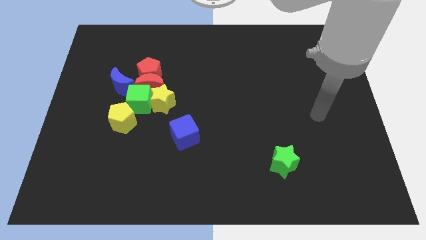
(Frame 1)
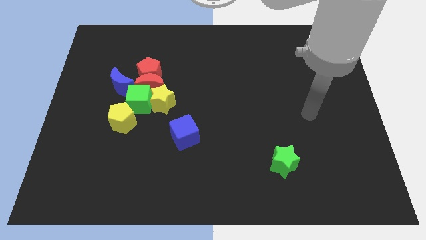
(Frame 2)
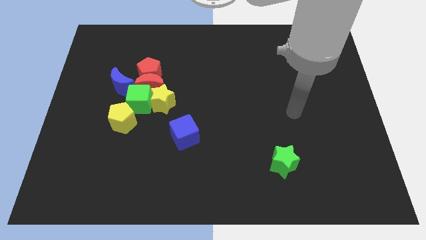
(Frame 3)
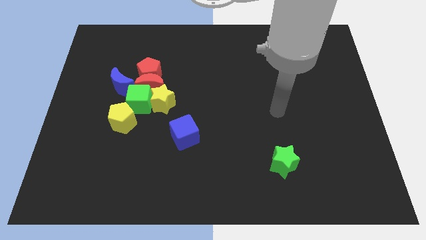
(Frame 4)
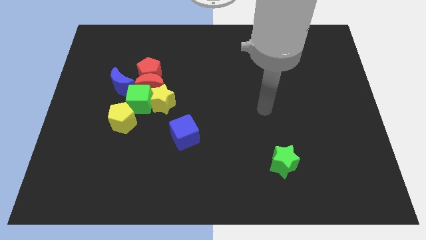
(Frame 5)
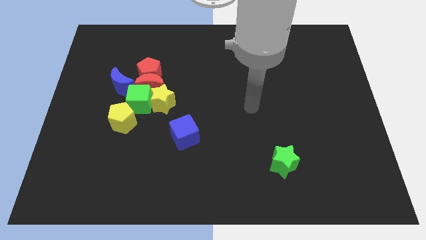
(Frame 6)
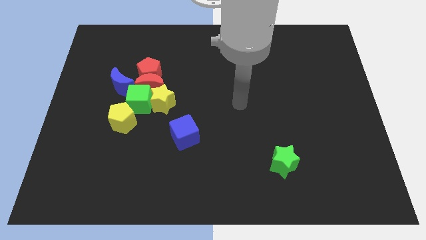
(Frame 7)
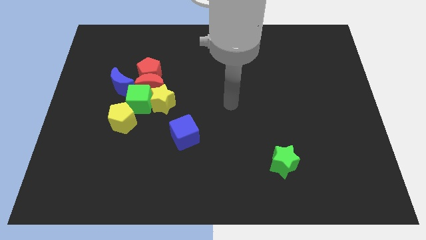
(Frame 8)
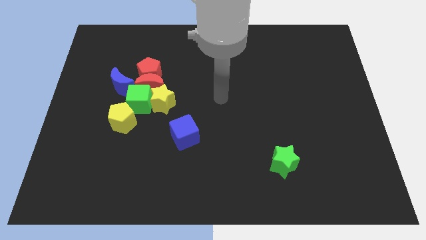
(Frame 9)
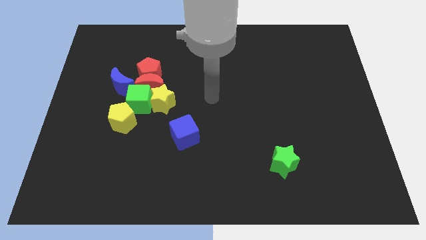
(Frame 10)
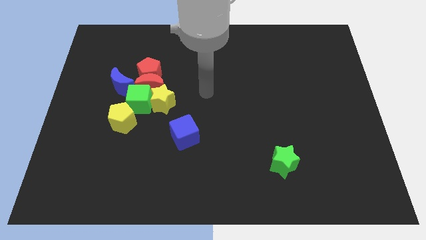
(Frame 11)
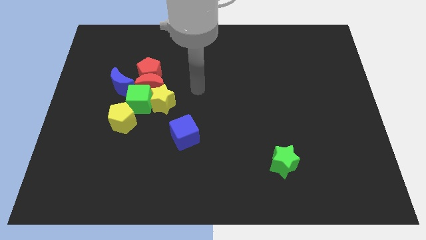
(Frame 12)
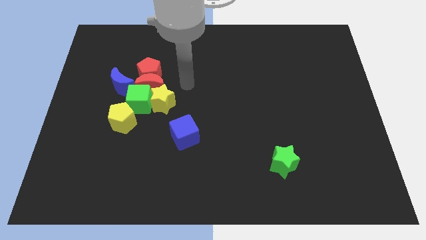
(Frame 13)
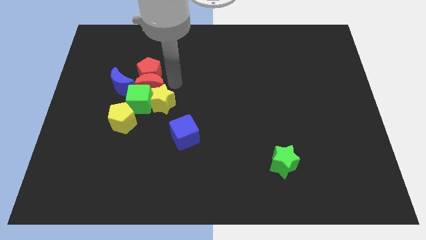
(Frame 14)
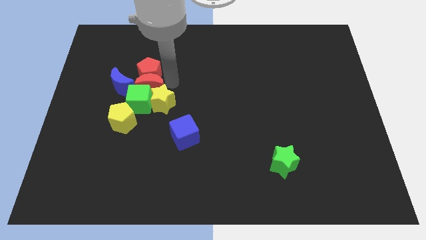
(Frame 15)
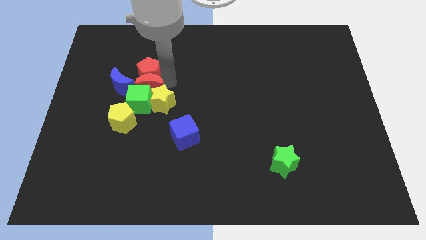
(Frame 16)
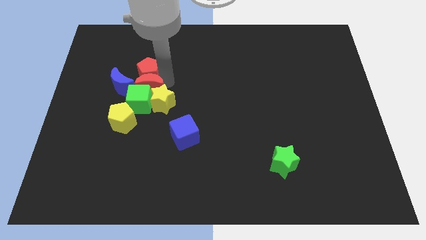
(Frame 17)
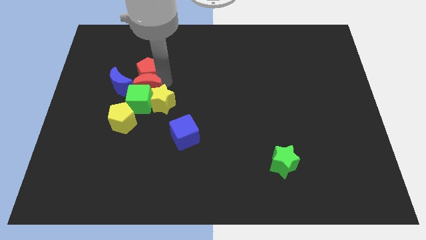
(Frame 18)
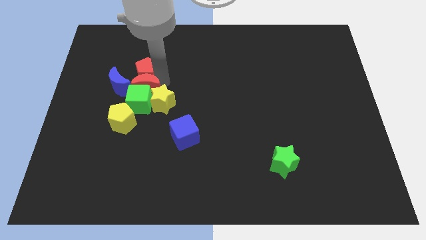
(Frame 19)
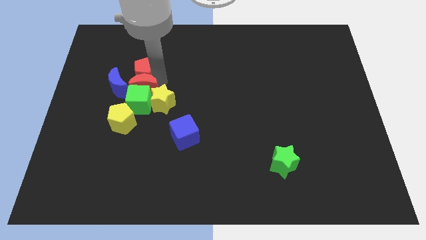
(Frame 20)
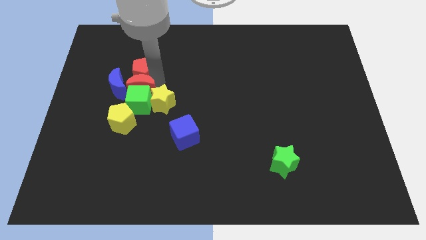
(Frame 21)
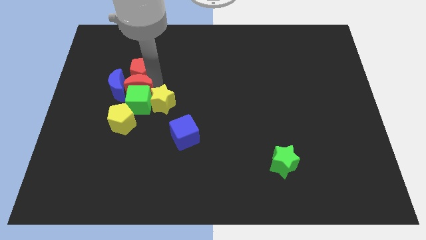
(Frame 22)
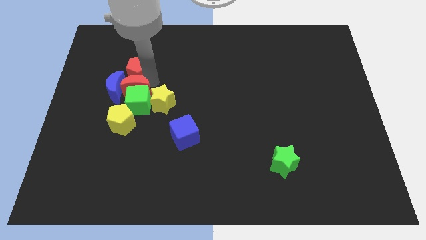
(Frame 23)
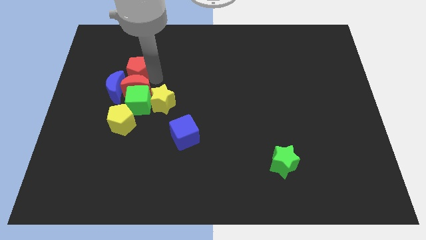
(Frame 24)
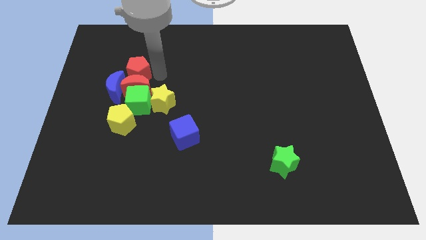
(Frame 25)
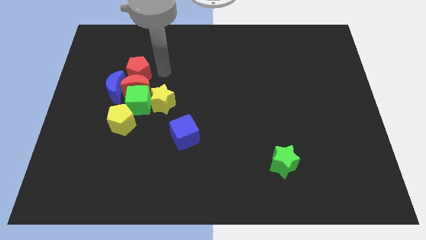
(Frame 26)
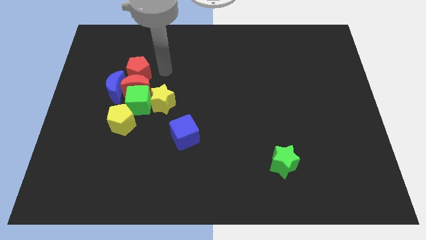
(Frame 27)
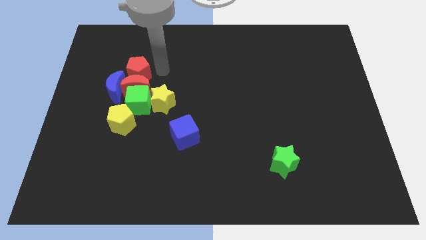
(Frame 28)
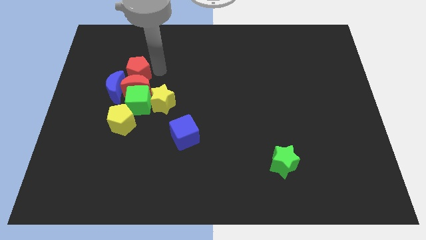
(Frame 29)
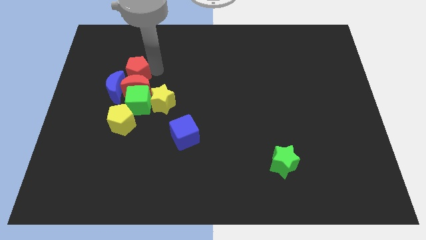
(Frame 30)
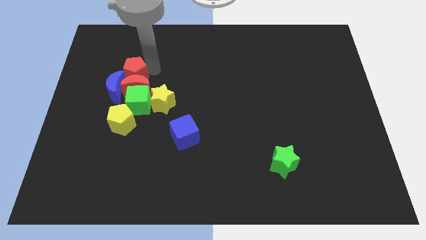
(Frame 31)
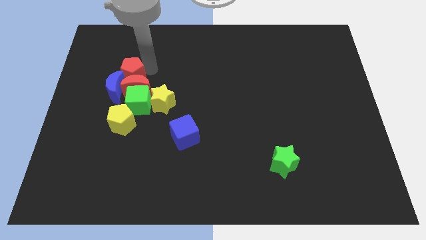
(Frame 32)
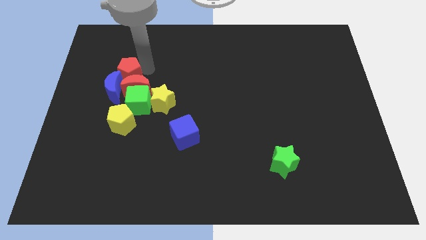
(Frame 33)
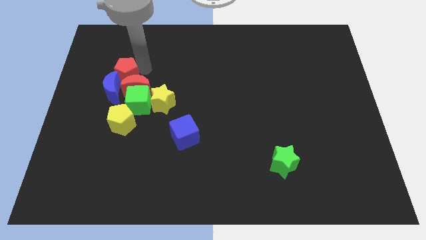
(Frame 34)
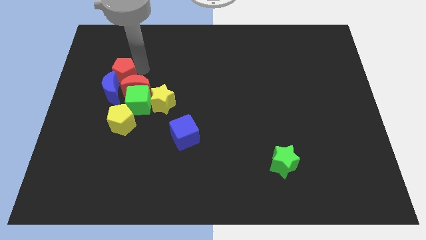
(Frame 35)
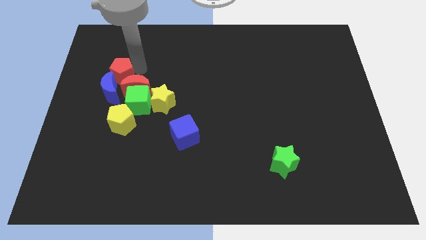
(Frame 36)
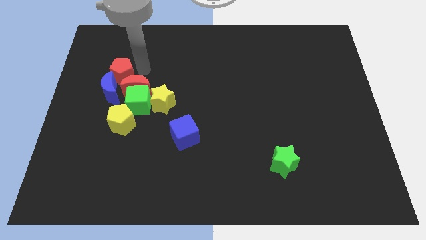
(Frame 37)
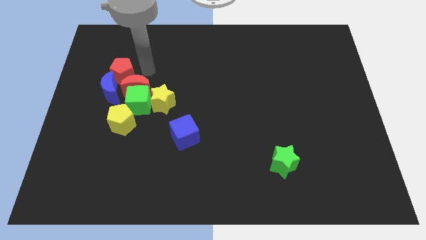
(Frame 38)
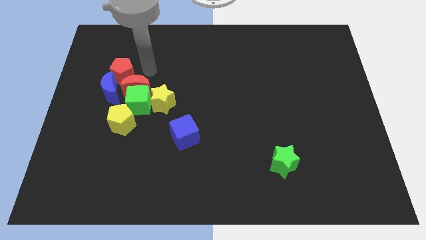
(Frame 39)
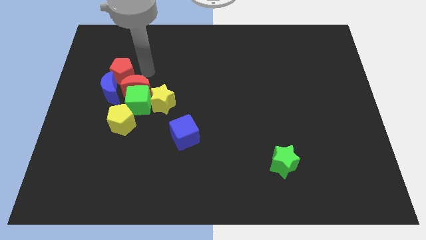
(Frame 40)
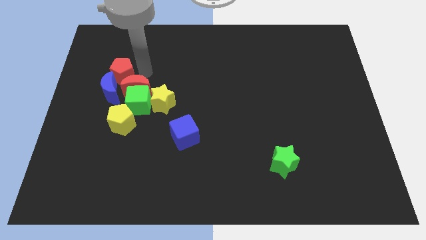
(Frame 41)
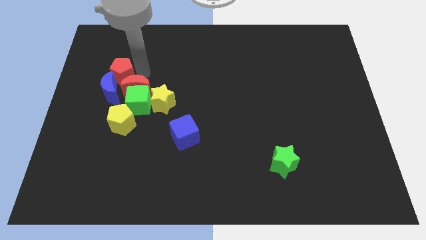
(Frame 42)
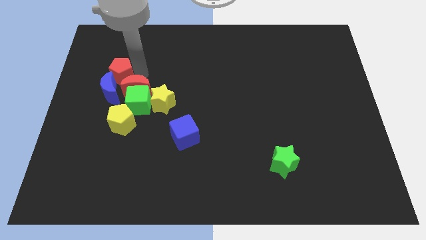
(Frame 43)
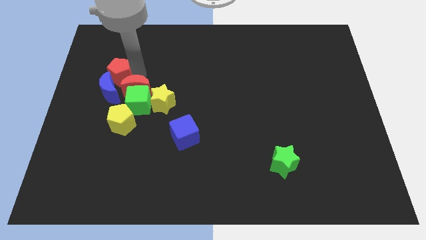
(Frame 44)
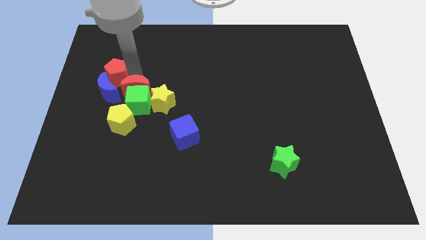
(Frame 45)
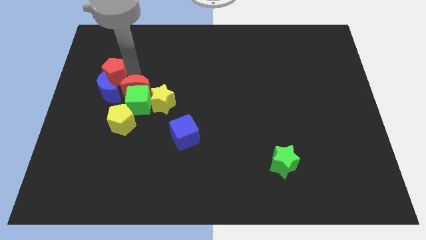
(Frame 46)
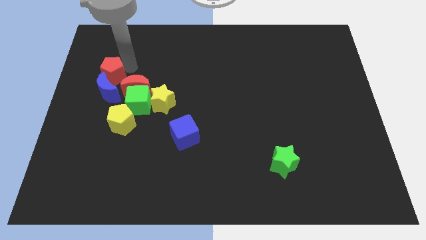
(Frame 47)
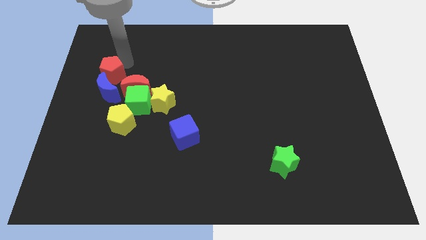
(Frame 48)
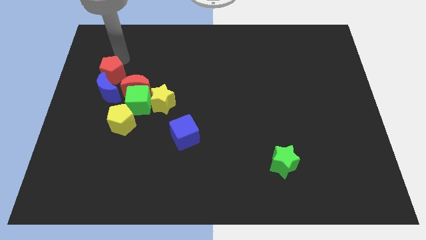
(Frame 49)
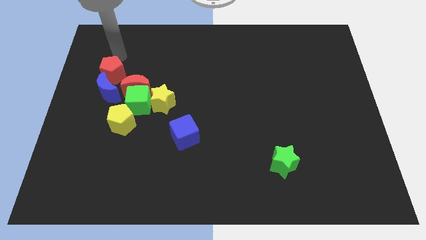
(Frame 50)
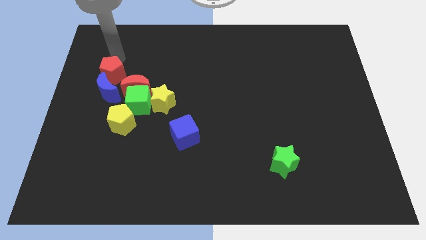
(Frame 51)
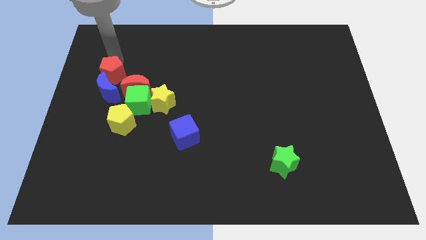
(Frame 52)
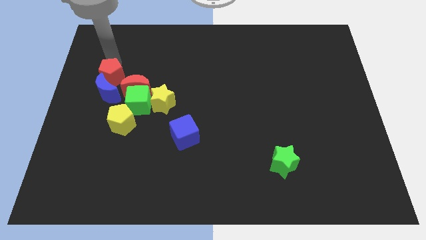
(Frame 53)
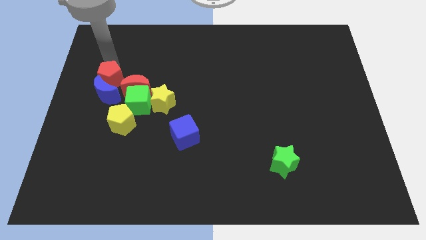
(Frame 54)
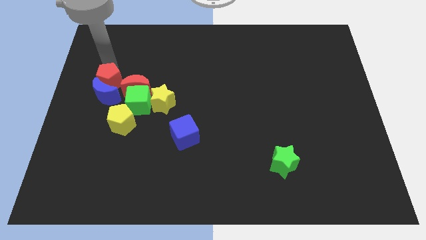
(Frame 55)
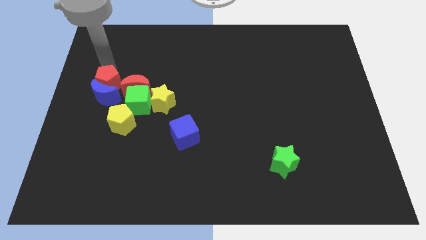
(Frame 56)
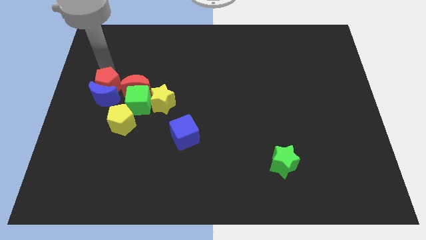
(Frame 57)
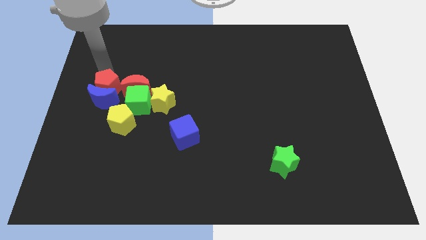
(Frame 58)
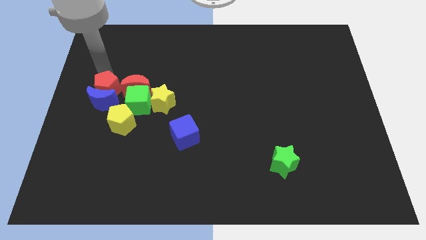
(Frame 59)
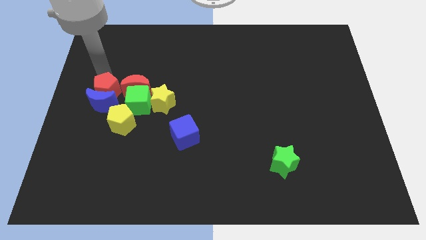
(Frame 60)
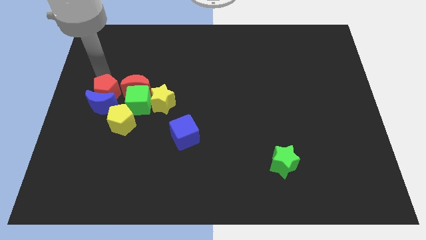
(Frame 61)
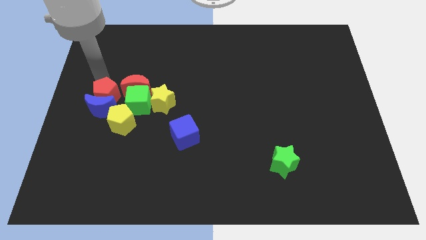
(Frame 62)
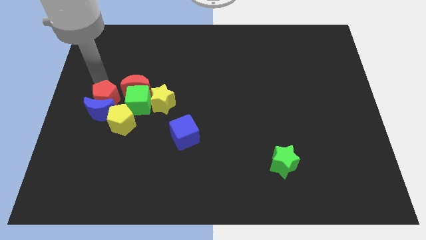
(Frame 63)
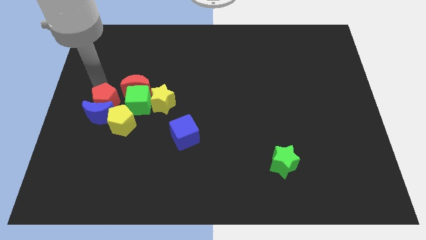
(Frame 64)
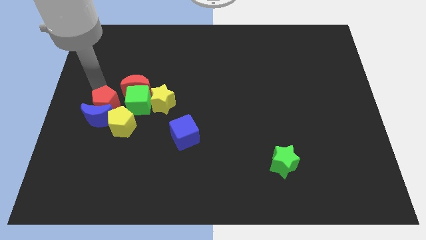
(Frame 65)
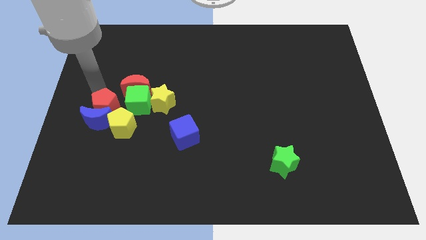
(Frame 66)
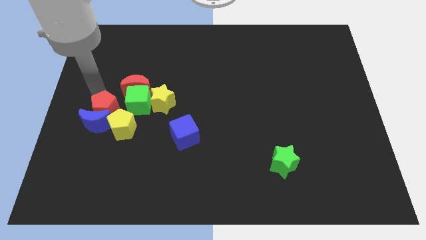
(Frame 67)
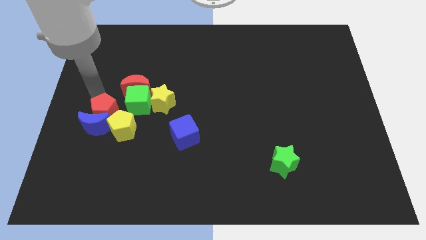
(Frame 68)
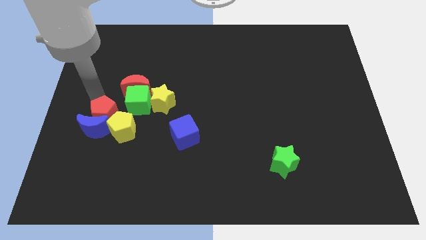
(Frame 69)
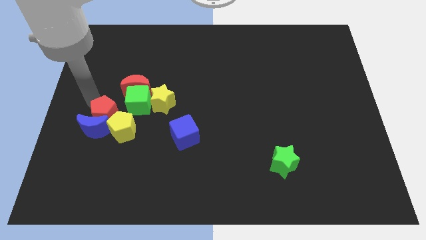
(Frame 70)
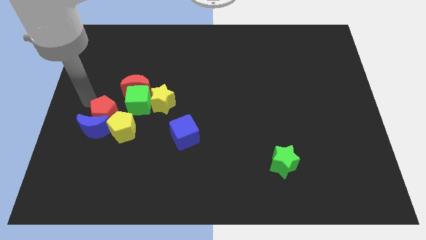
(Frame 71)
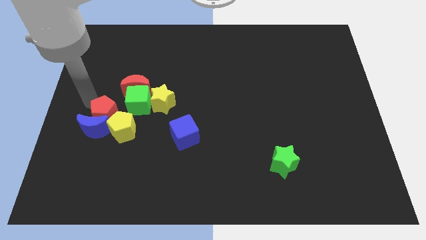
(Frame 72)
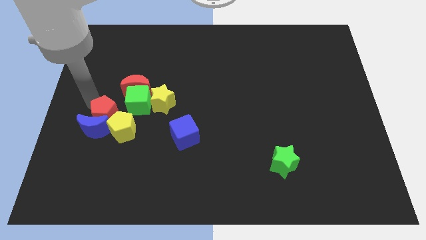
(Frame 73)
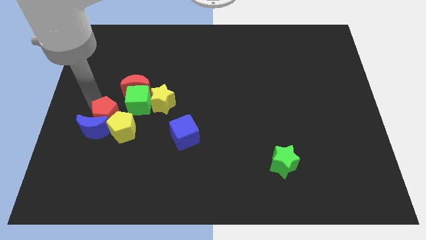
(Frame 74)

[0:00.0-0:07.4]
put the red pentagon close to the yellow pentagon

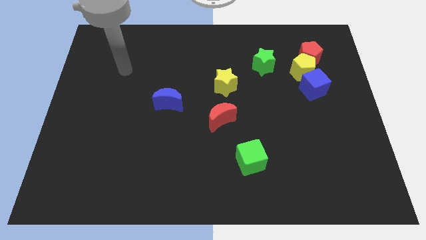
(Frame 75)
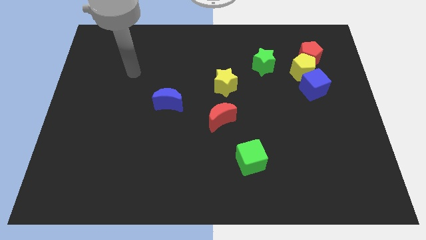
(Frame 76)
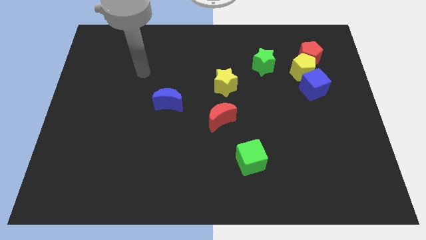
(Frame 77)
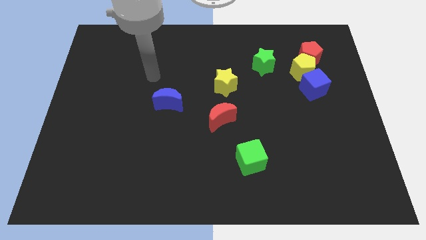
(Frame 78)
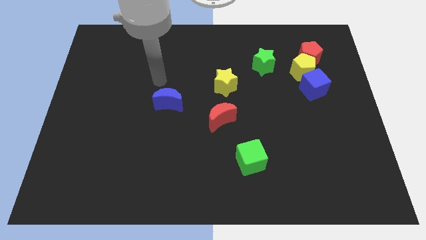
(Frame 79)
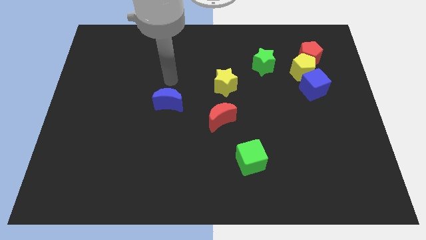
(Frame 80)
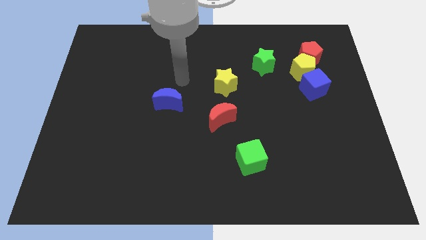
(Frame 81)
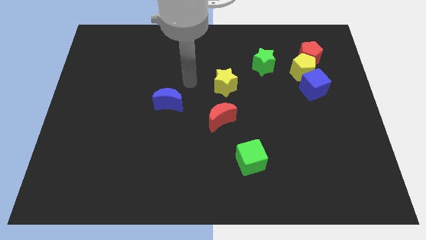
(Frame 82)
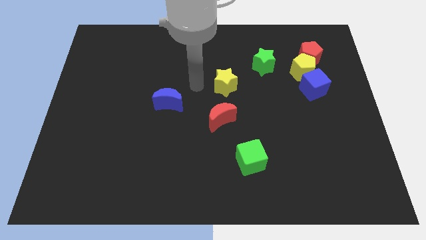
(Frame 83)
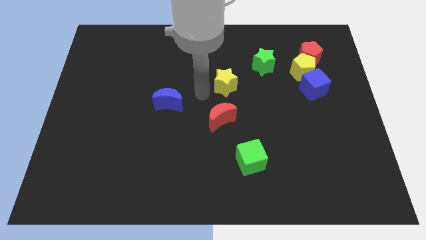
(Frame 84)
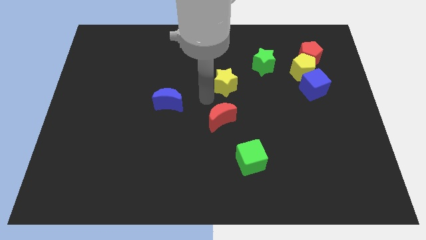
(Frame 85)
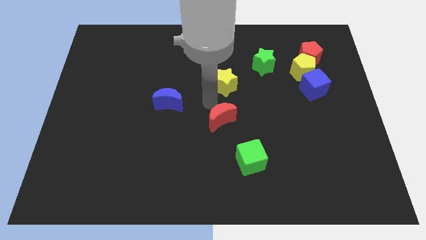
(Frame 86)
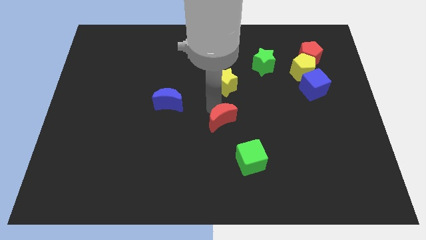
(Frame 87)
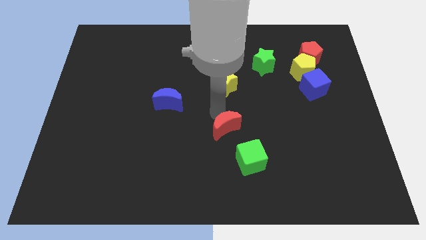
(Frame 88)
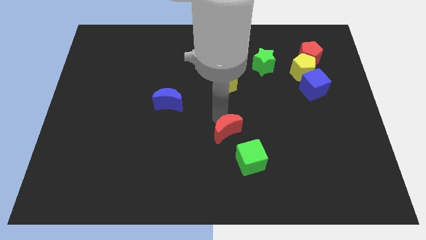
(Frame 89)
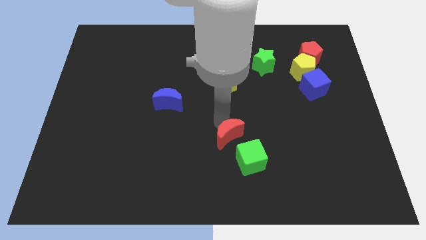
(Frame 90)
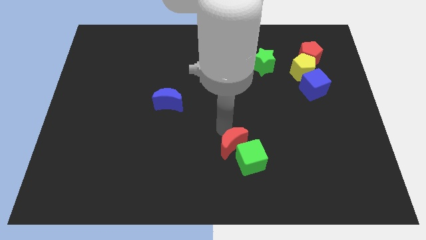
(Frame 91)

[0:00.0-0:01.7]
slide the red moon towards the green cube
